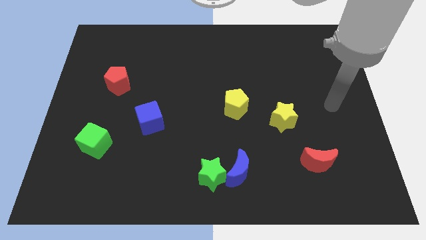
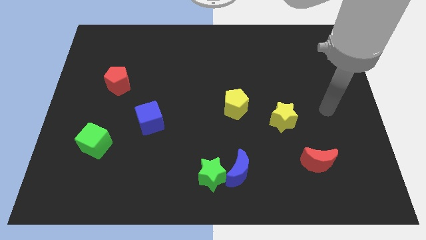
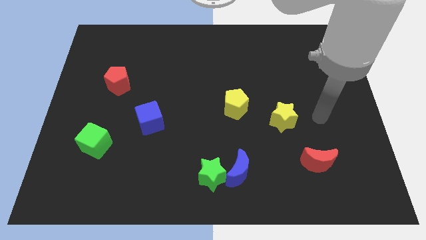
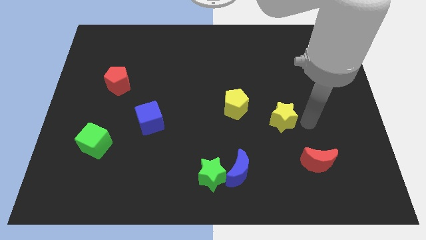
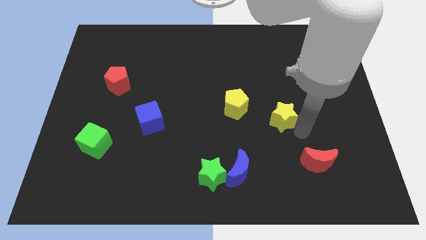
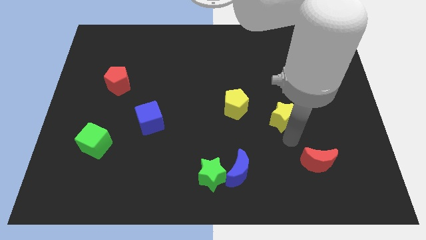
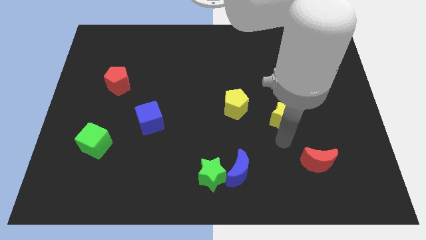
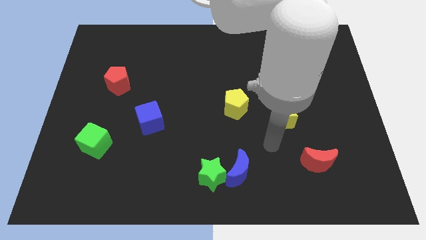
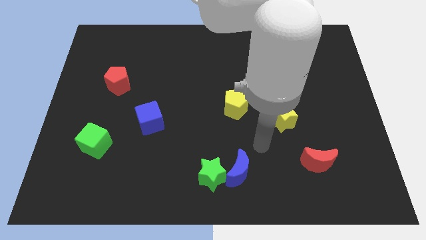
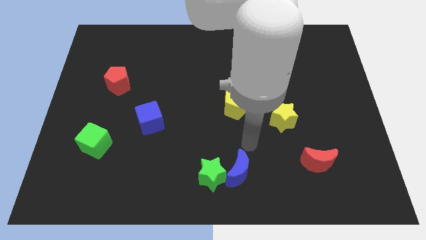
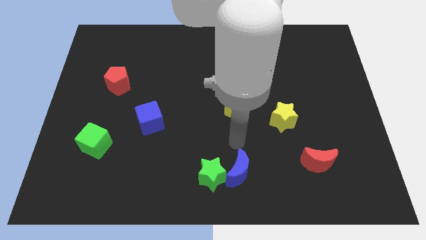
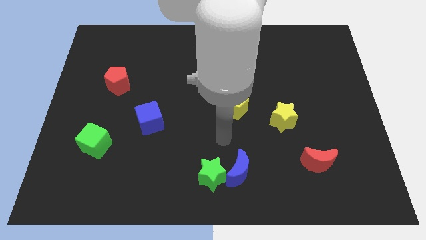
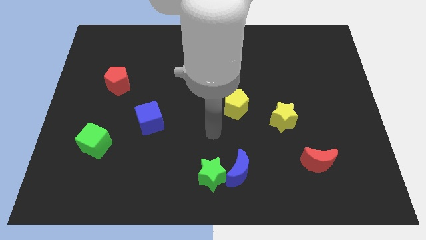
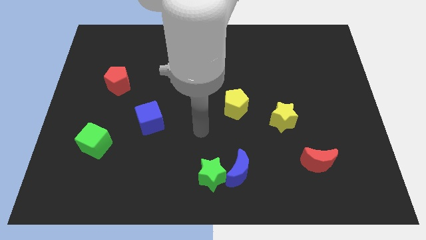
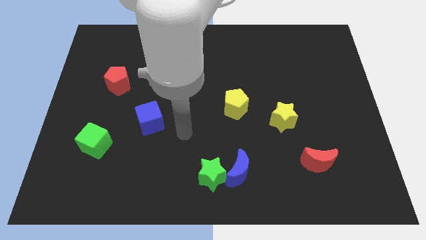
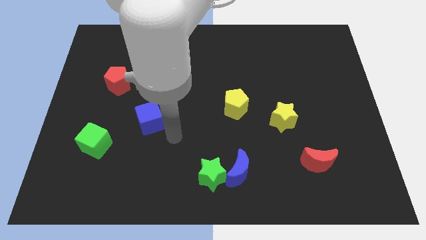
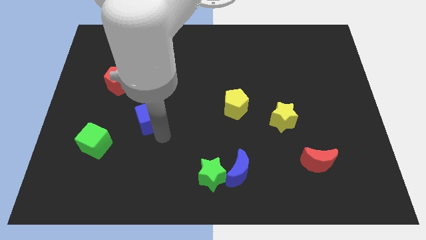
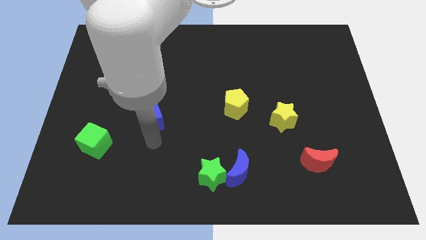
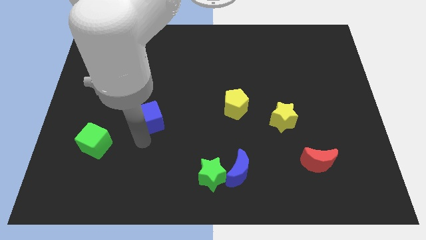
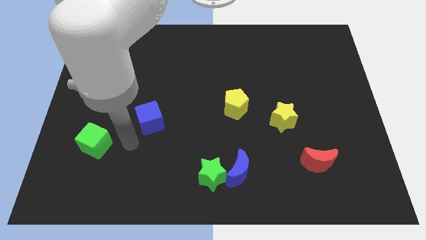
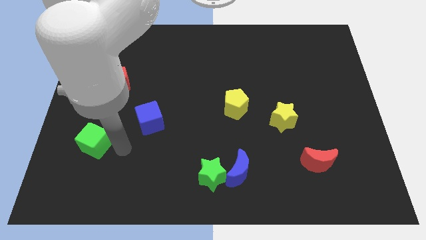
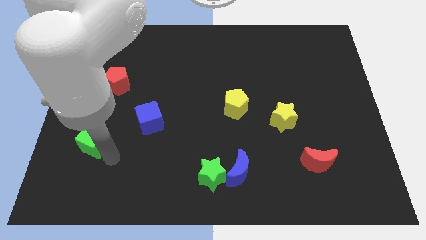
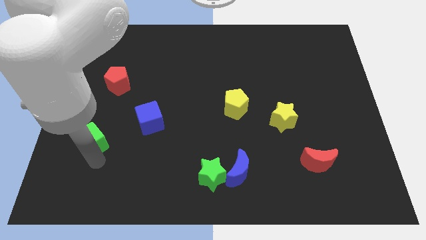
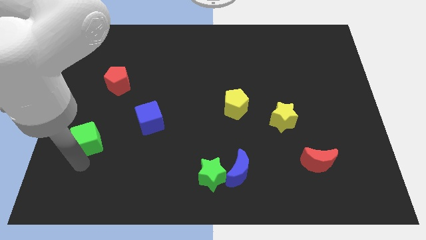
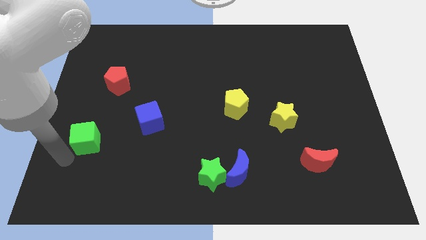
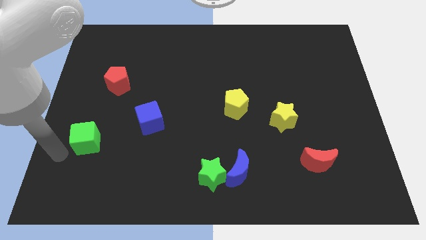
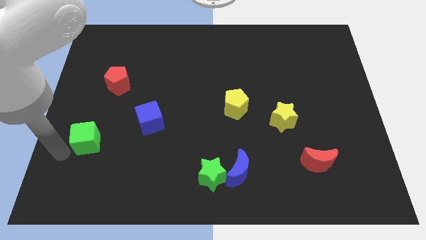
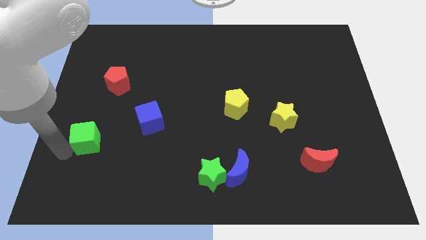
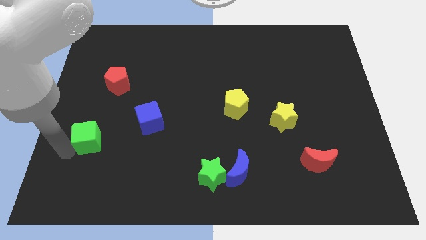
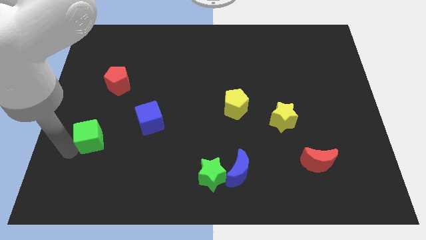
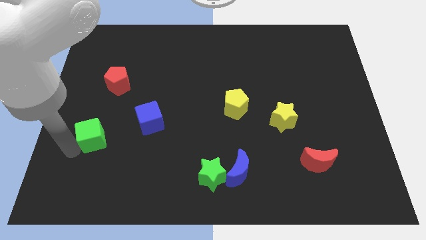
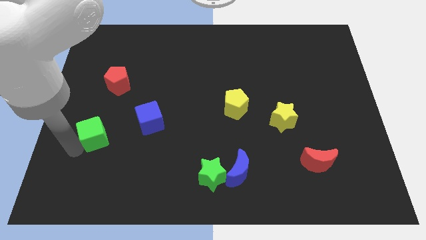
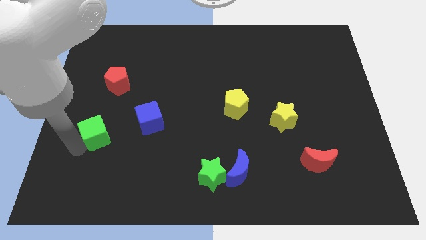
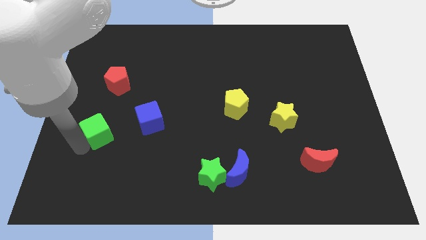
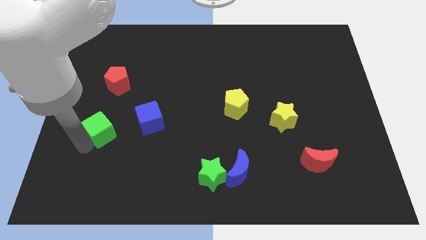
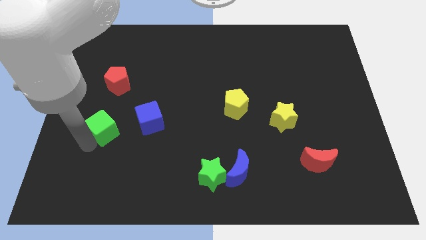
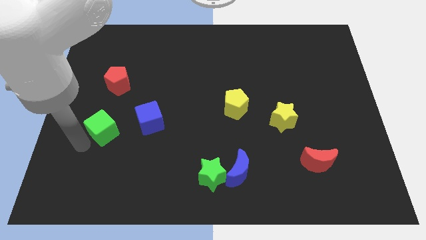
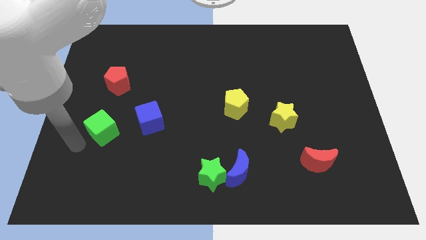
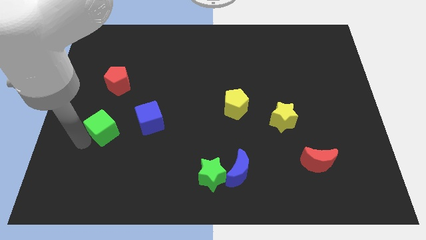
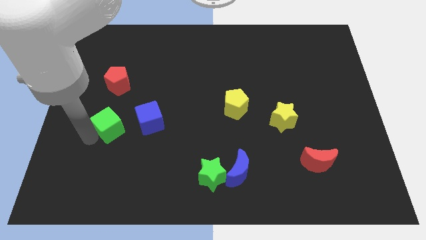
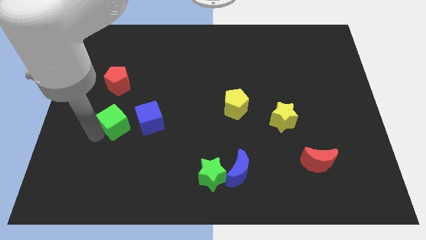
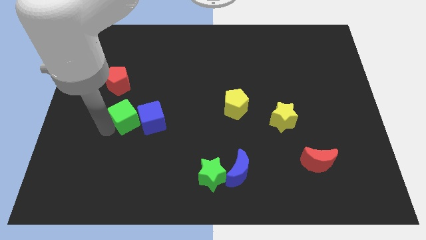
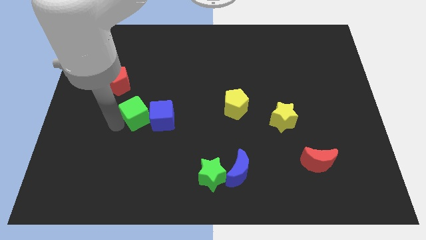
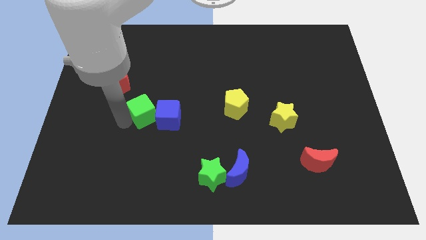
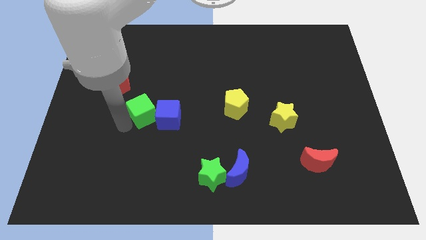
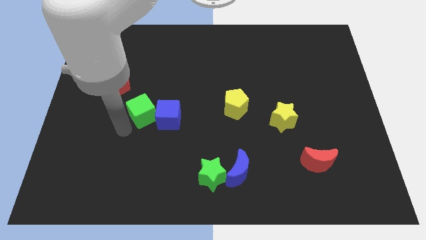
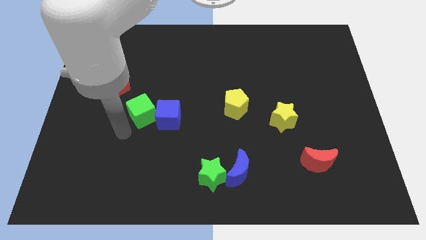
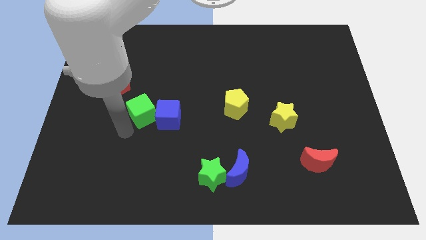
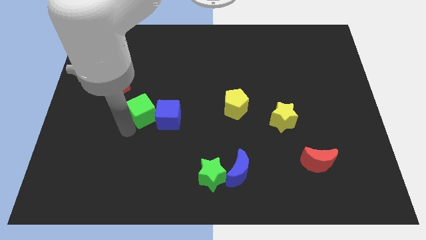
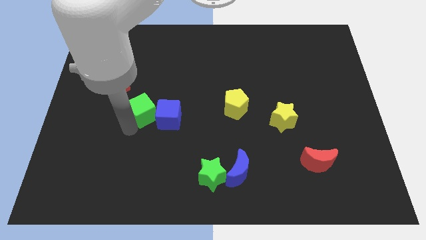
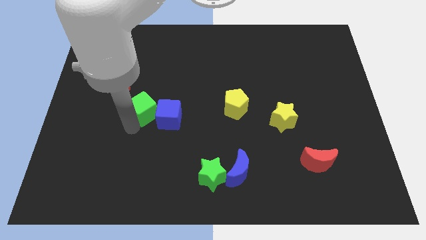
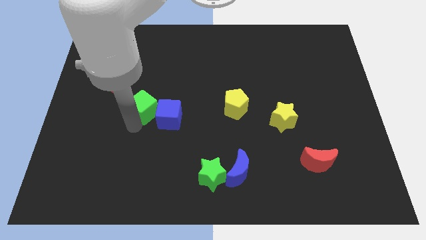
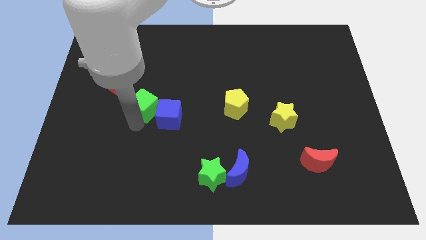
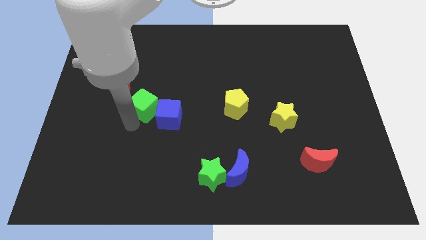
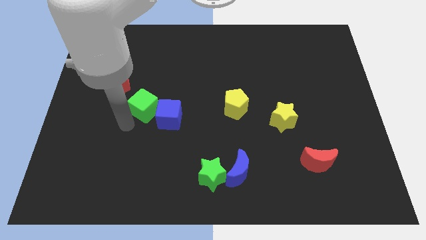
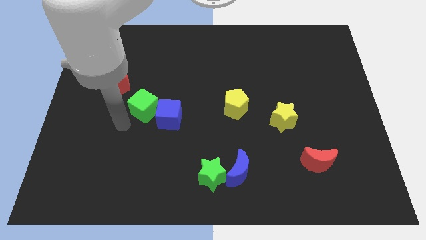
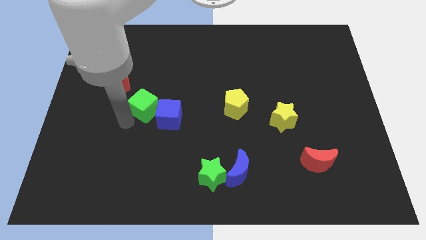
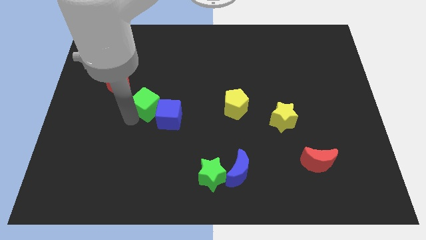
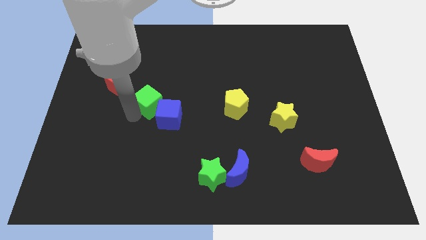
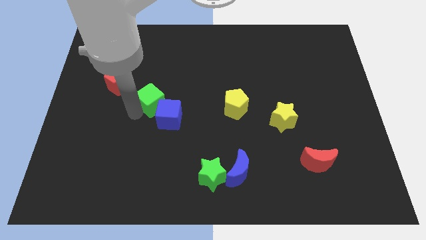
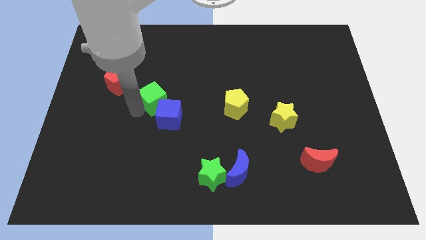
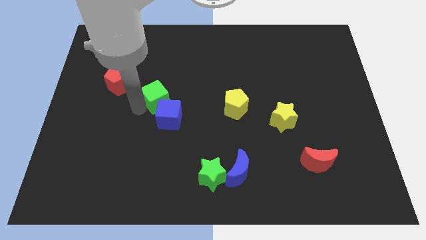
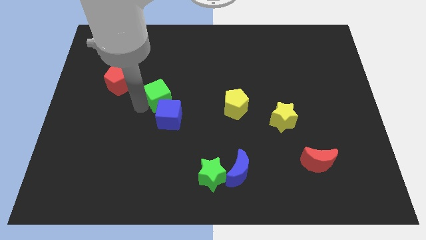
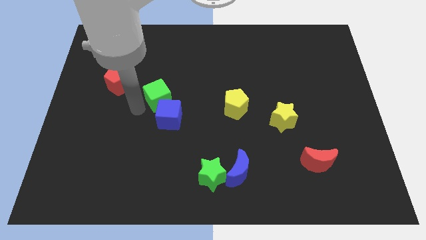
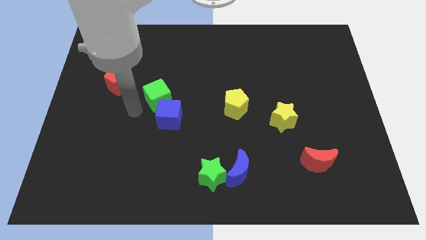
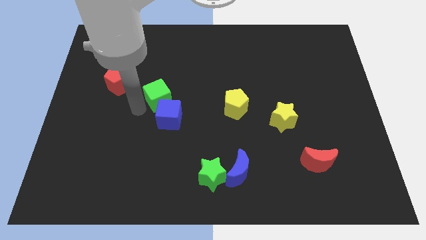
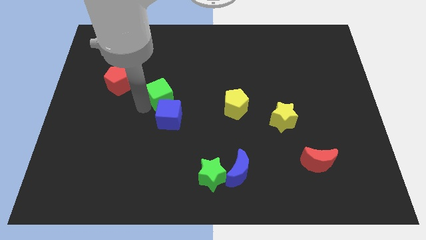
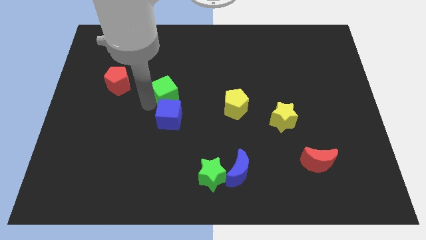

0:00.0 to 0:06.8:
slide the green cube up and to the right

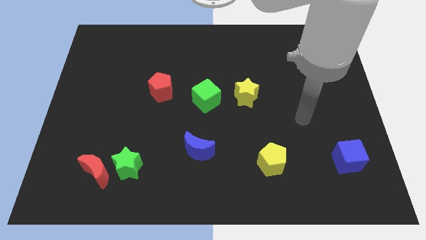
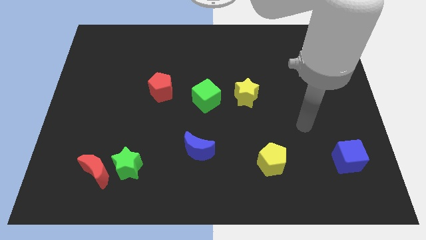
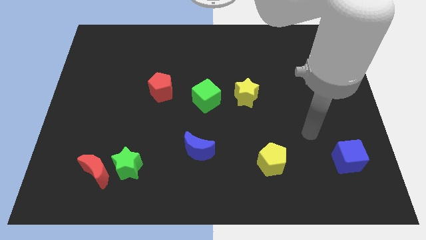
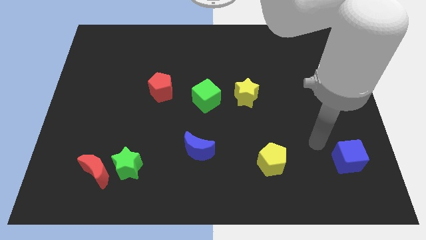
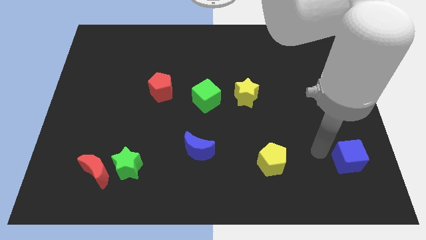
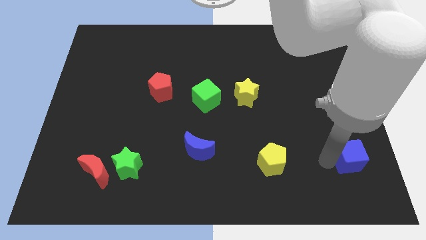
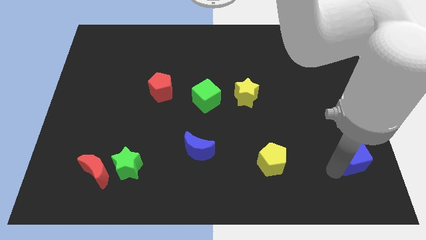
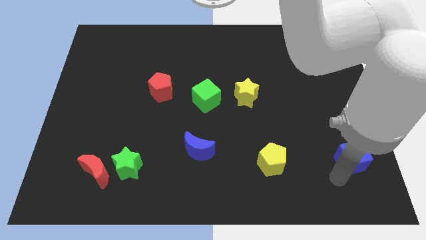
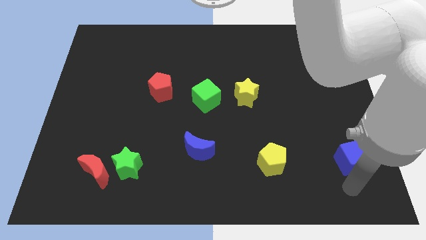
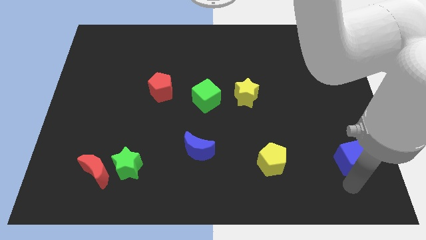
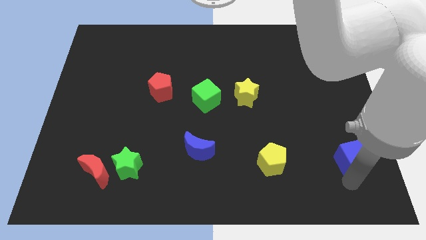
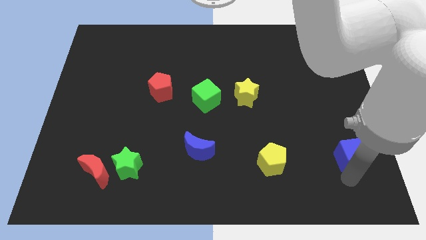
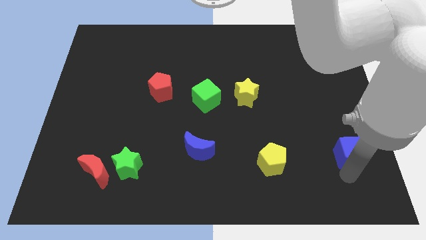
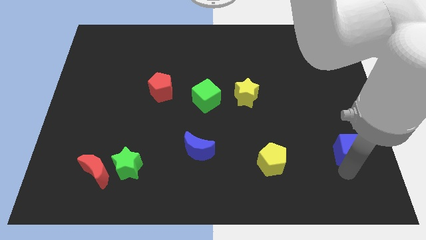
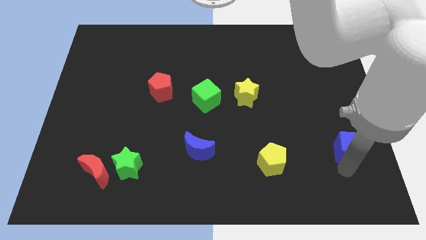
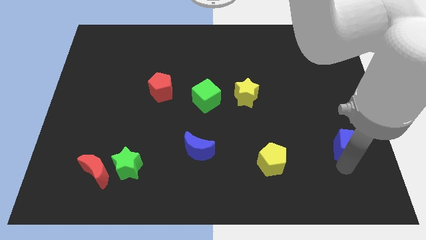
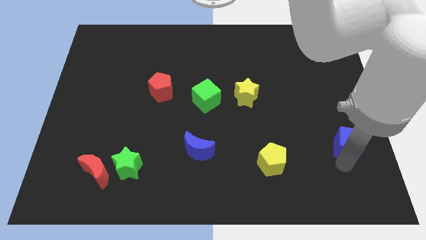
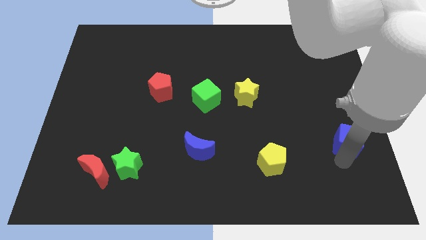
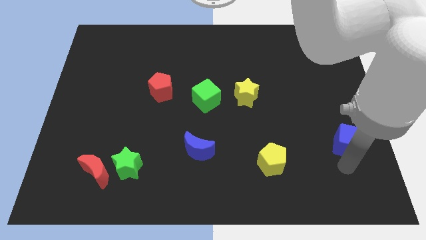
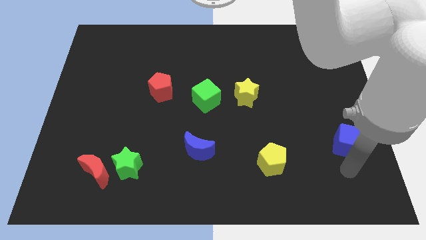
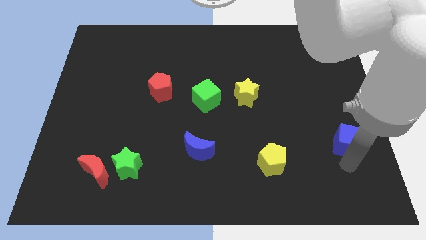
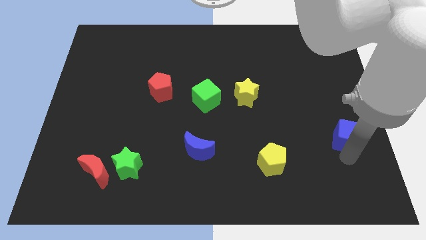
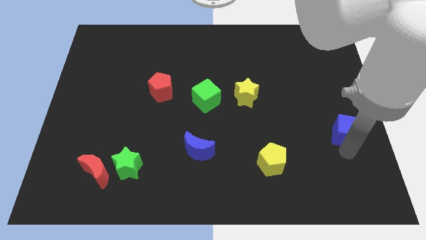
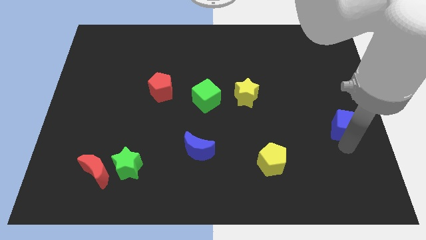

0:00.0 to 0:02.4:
slightly push the blue cube up
